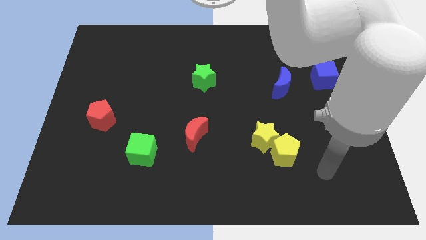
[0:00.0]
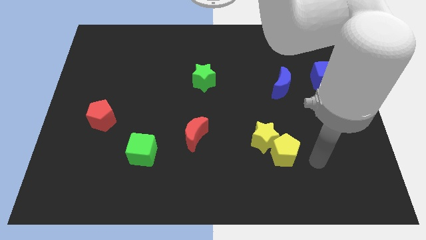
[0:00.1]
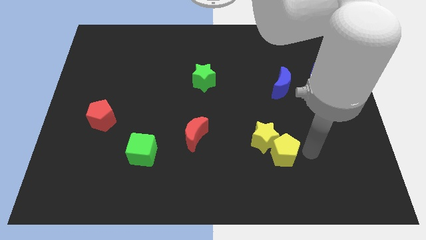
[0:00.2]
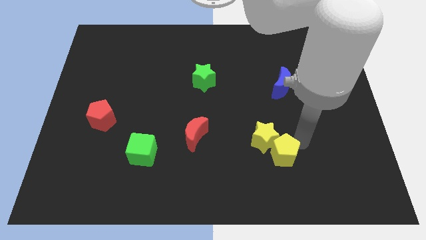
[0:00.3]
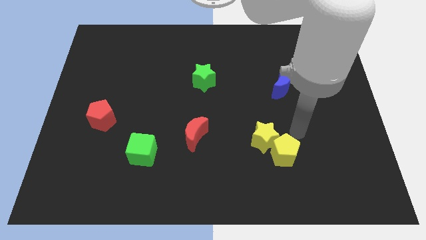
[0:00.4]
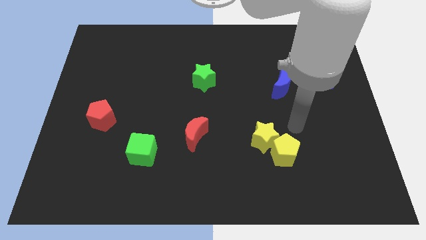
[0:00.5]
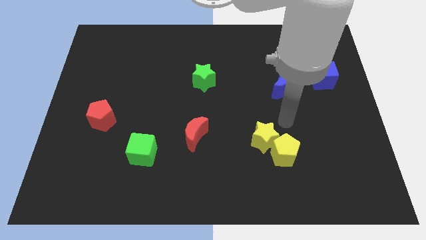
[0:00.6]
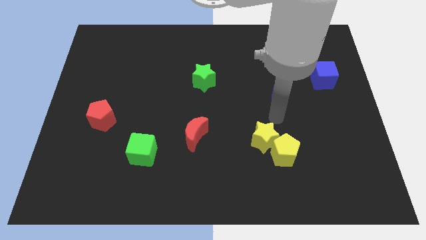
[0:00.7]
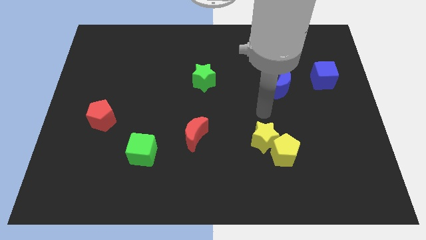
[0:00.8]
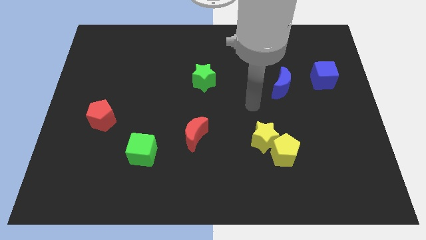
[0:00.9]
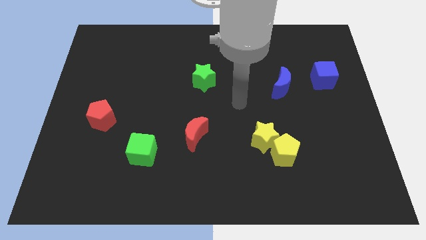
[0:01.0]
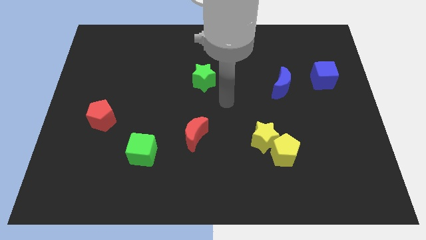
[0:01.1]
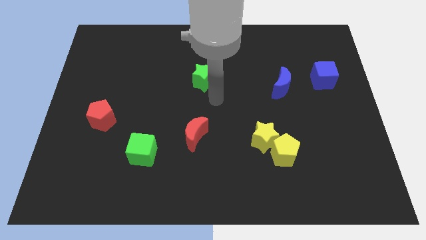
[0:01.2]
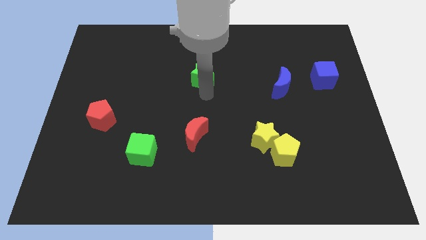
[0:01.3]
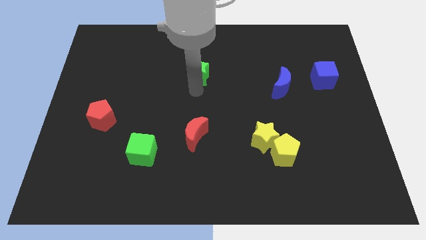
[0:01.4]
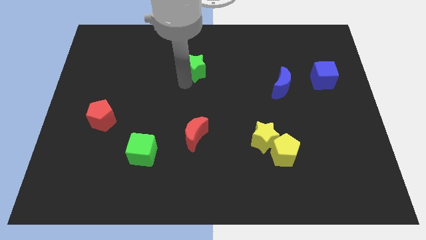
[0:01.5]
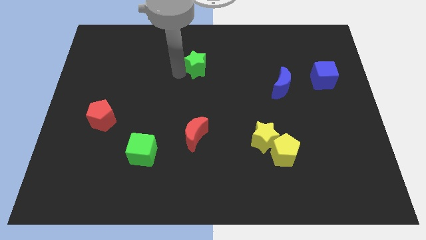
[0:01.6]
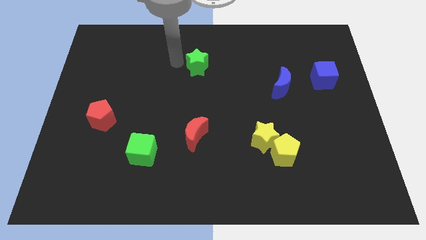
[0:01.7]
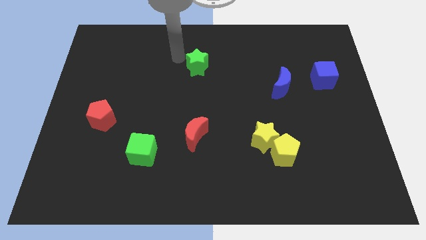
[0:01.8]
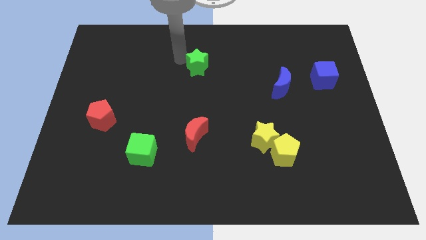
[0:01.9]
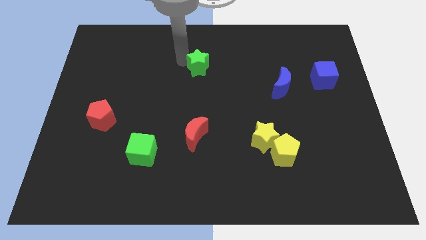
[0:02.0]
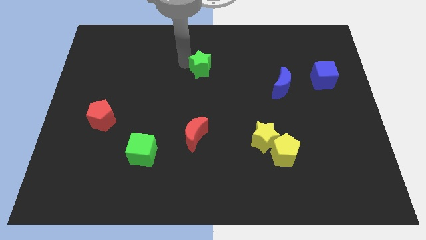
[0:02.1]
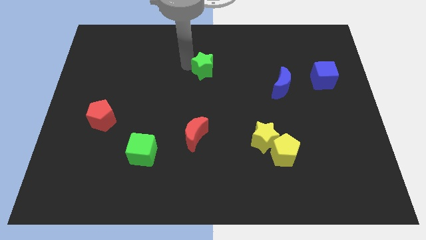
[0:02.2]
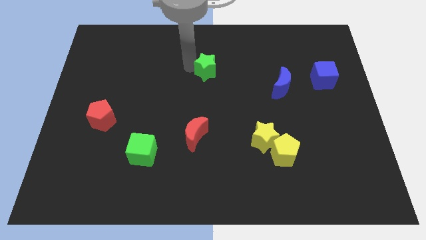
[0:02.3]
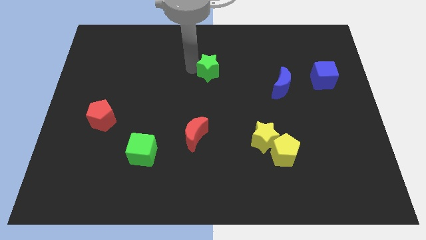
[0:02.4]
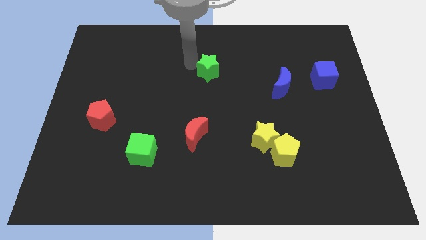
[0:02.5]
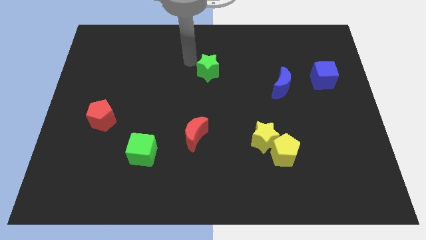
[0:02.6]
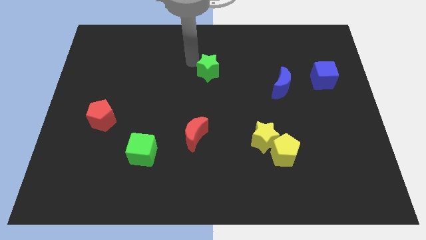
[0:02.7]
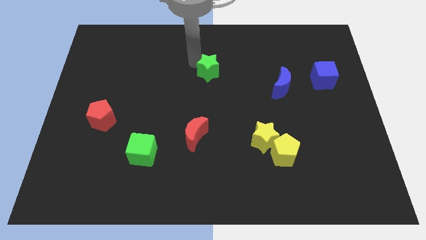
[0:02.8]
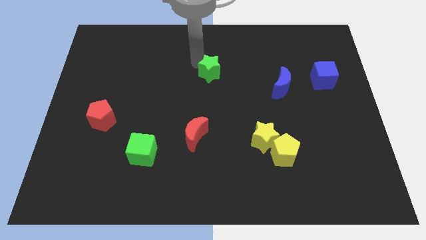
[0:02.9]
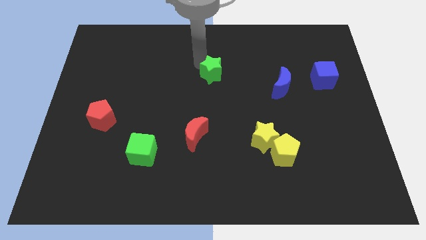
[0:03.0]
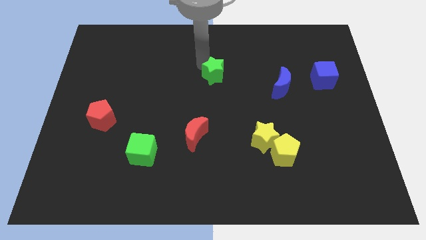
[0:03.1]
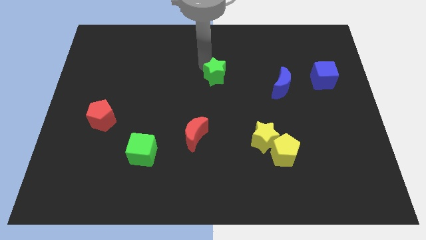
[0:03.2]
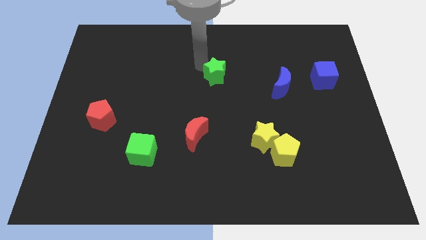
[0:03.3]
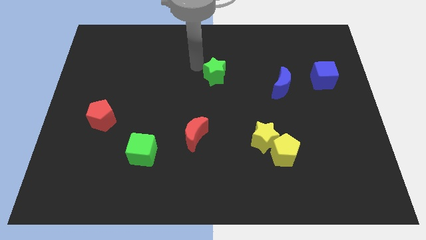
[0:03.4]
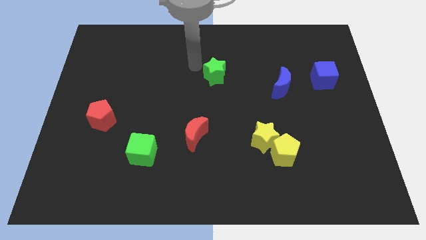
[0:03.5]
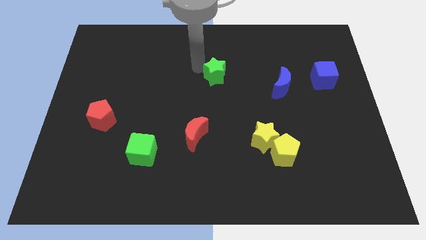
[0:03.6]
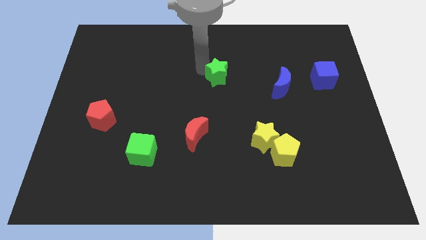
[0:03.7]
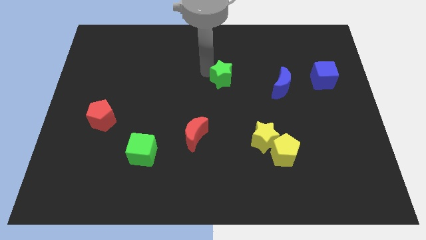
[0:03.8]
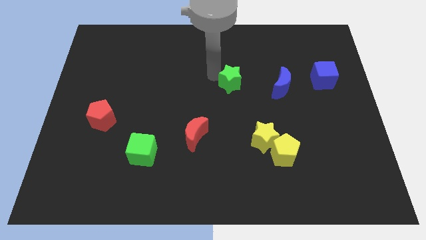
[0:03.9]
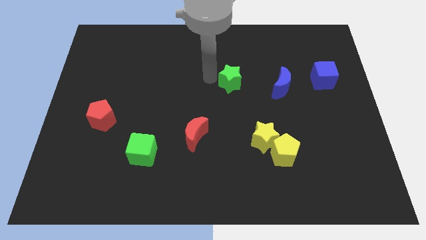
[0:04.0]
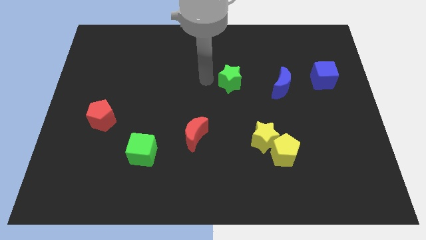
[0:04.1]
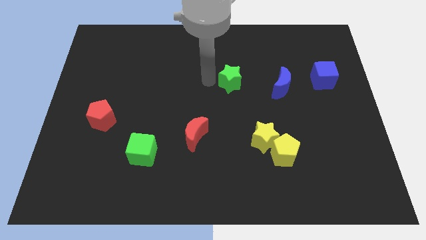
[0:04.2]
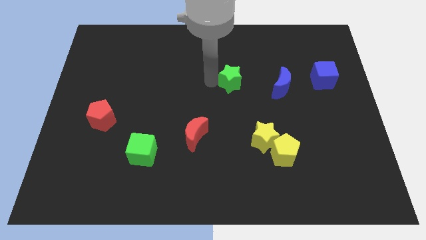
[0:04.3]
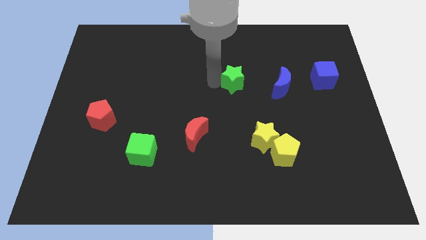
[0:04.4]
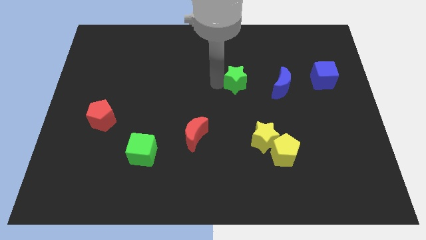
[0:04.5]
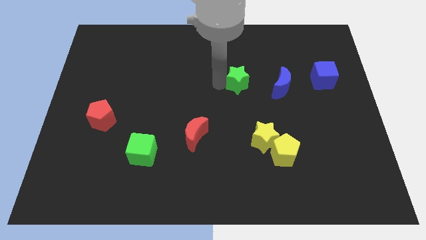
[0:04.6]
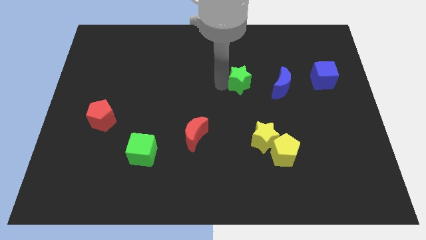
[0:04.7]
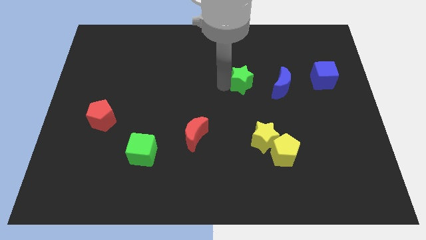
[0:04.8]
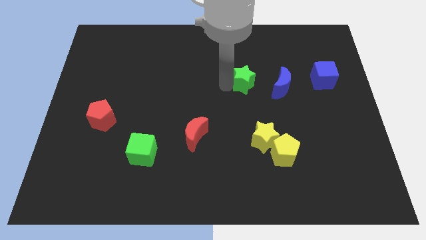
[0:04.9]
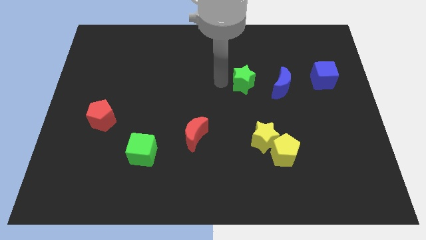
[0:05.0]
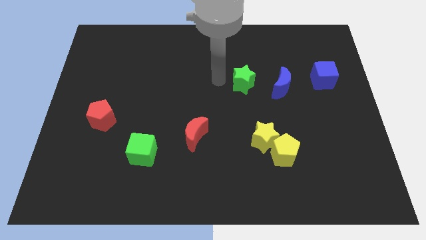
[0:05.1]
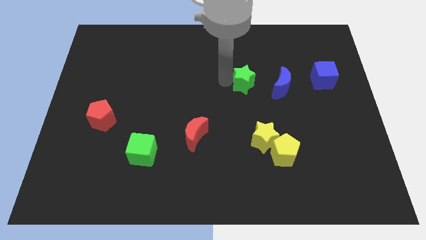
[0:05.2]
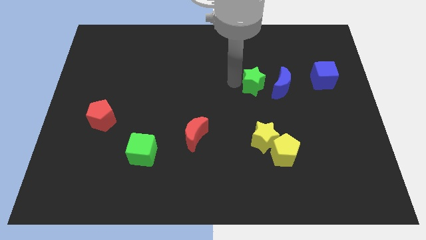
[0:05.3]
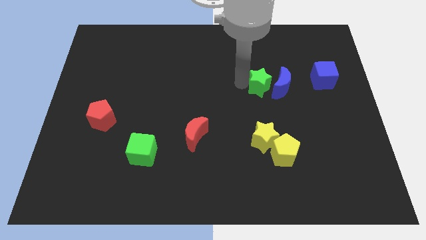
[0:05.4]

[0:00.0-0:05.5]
put the green star towards the blue moon

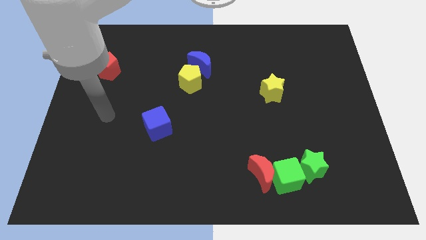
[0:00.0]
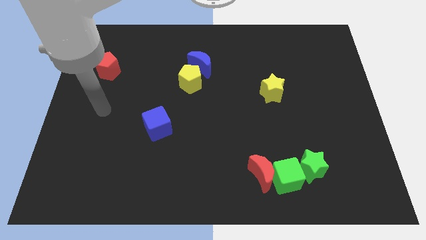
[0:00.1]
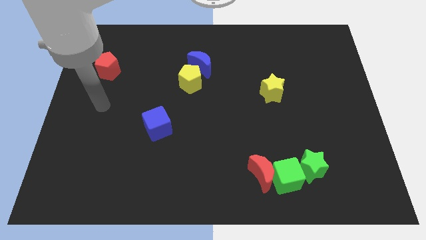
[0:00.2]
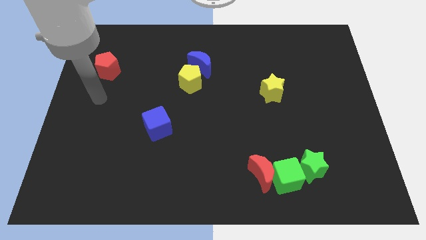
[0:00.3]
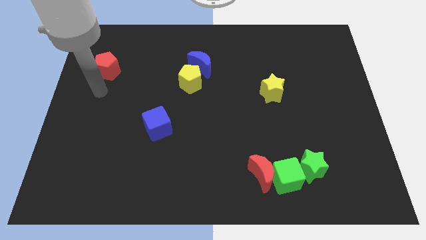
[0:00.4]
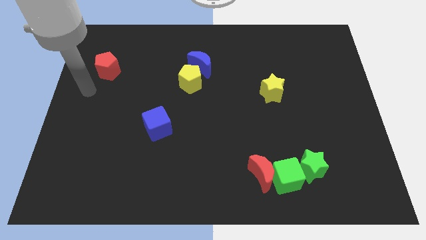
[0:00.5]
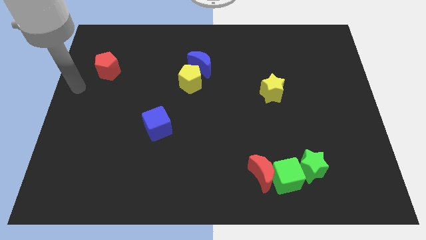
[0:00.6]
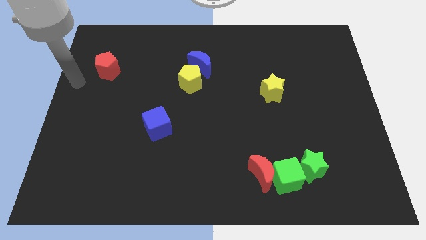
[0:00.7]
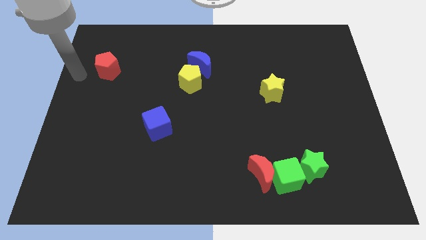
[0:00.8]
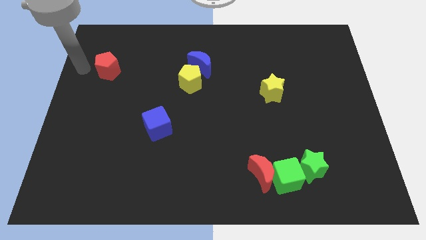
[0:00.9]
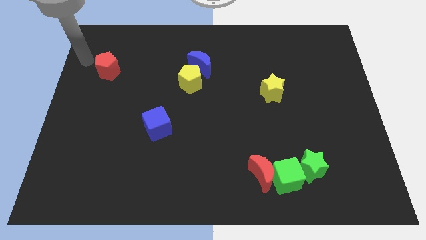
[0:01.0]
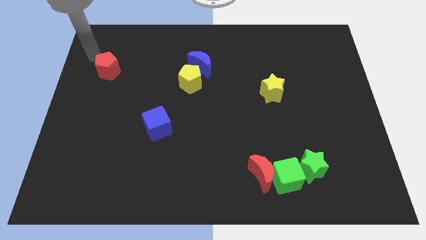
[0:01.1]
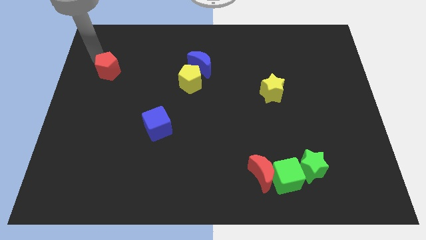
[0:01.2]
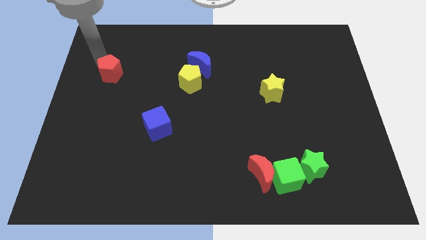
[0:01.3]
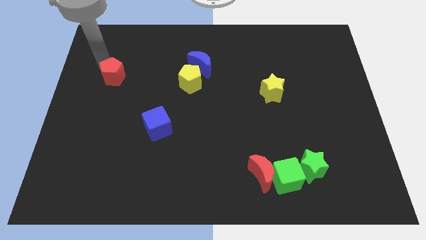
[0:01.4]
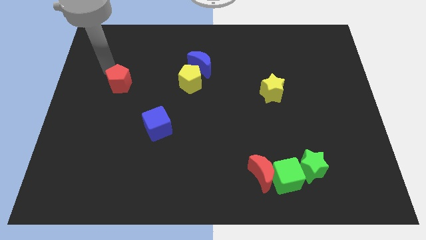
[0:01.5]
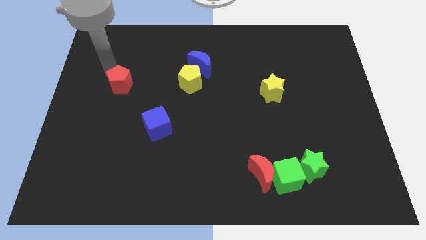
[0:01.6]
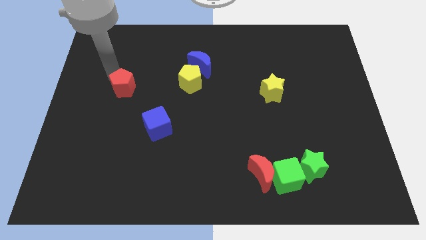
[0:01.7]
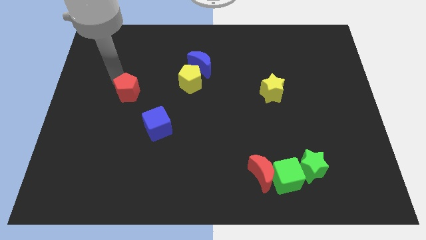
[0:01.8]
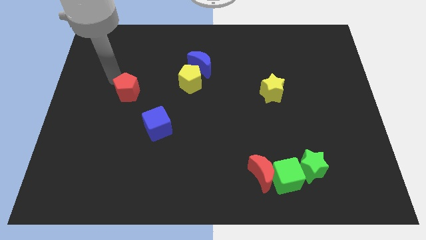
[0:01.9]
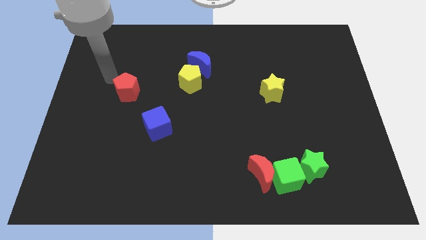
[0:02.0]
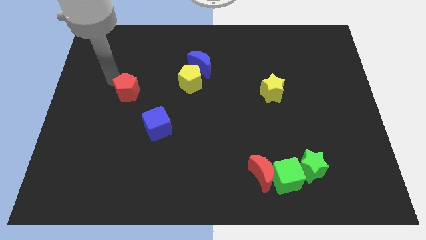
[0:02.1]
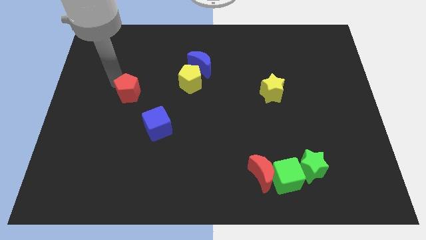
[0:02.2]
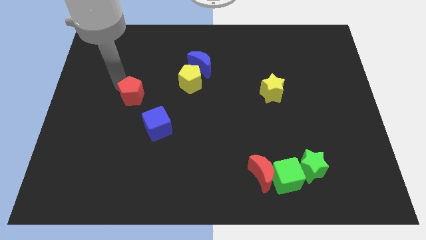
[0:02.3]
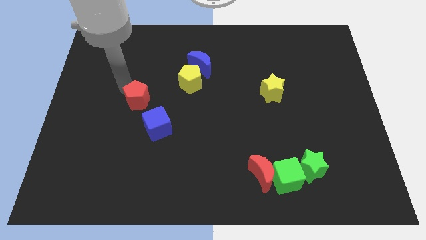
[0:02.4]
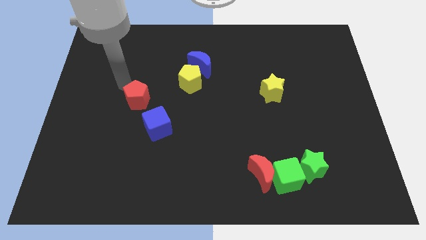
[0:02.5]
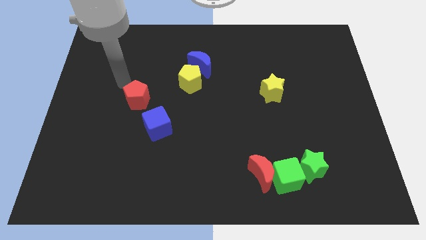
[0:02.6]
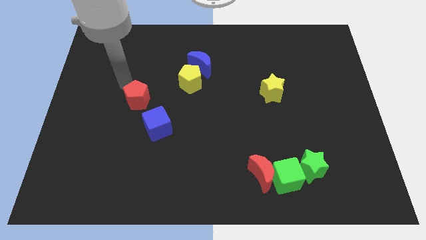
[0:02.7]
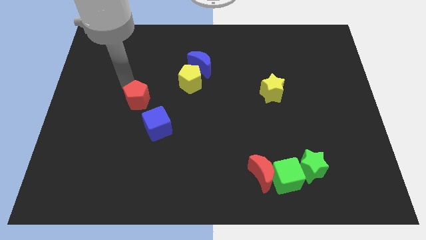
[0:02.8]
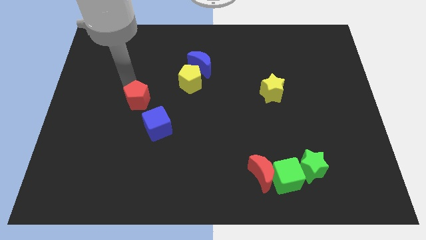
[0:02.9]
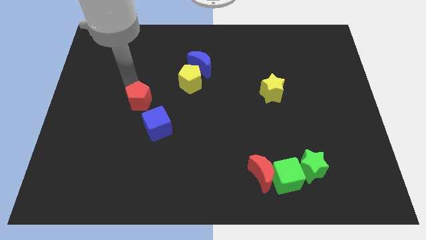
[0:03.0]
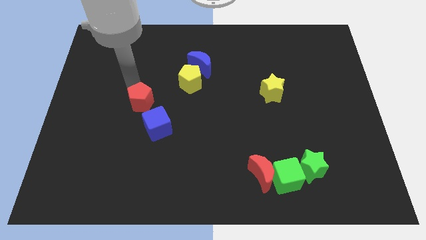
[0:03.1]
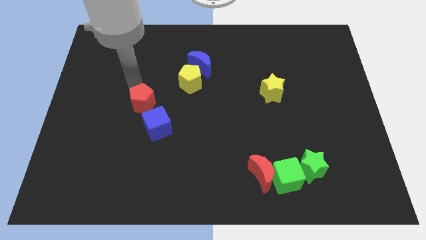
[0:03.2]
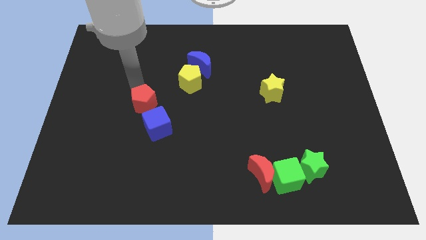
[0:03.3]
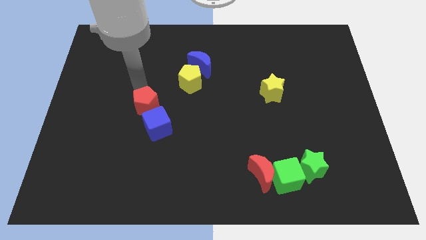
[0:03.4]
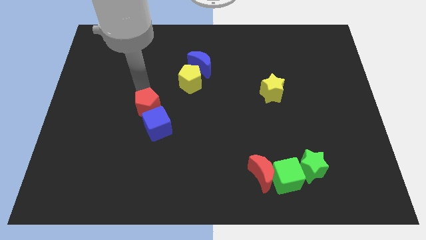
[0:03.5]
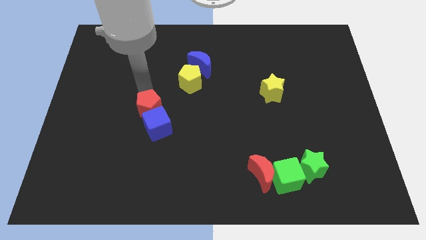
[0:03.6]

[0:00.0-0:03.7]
put the red pentagon next to the blue cube
